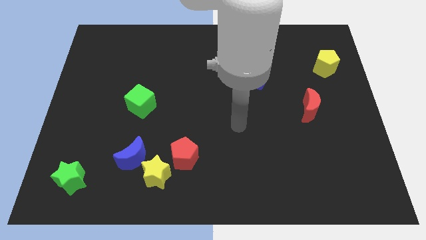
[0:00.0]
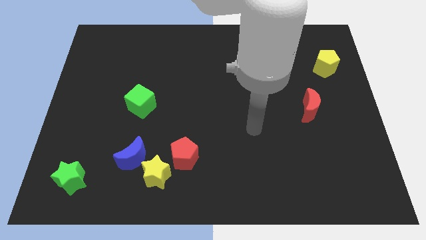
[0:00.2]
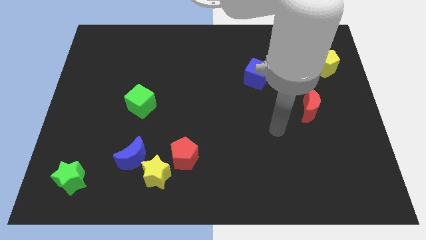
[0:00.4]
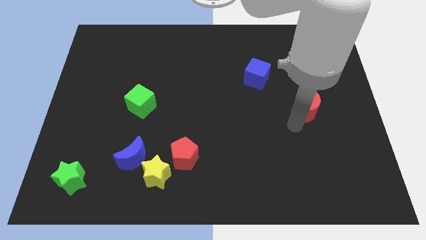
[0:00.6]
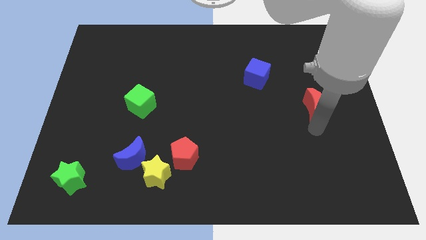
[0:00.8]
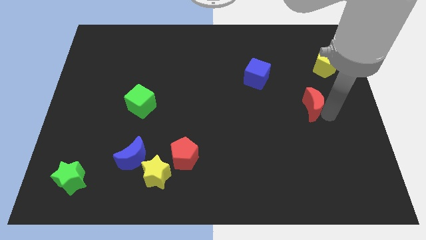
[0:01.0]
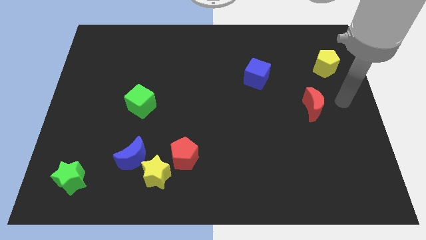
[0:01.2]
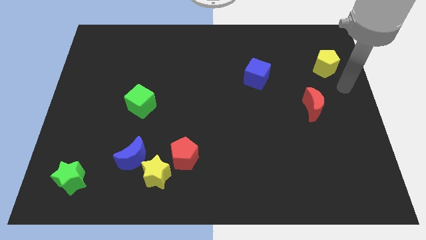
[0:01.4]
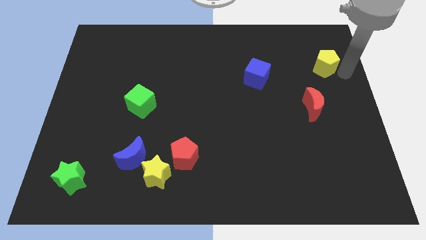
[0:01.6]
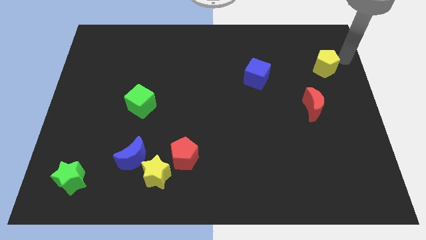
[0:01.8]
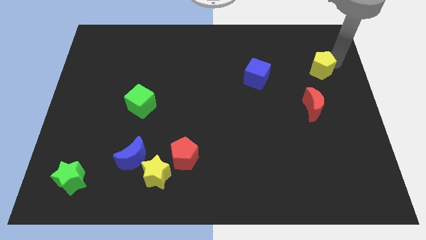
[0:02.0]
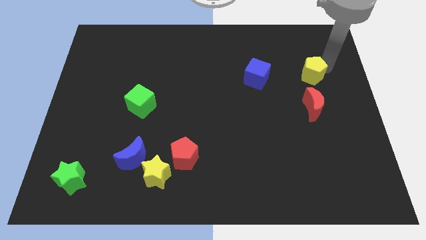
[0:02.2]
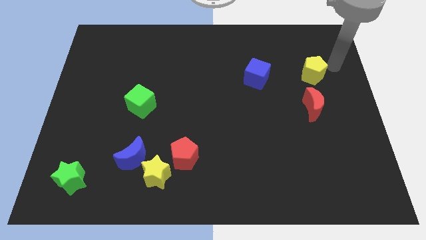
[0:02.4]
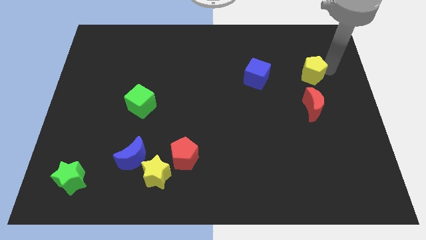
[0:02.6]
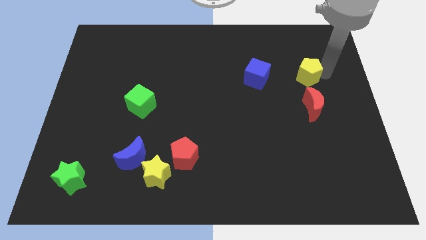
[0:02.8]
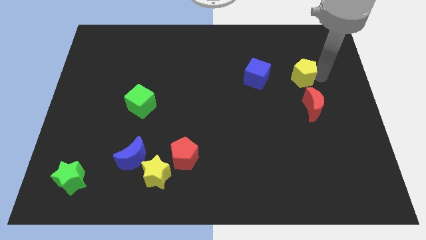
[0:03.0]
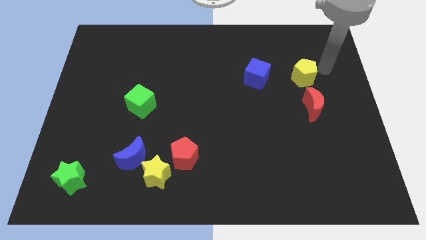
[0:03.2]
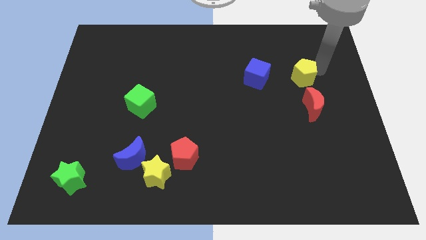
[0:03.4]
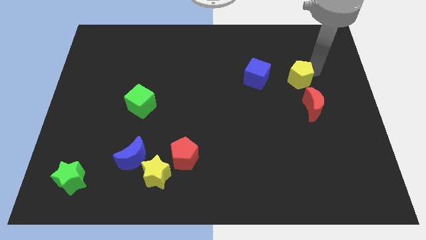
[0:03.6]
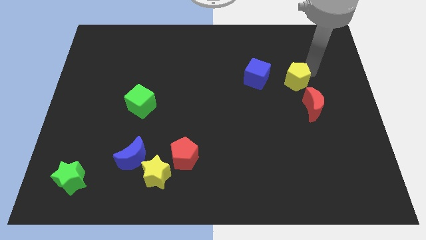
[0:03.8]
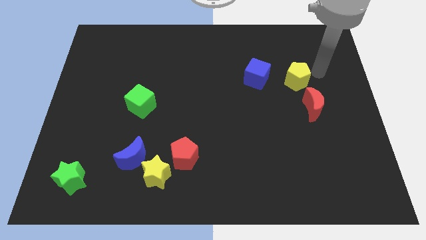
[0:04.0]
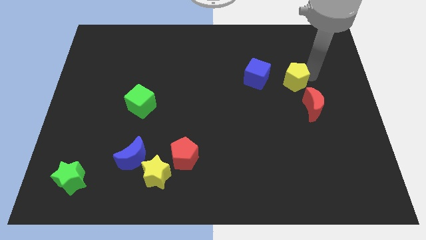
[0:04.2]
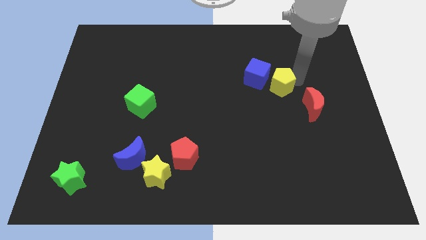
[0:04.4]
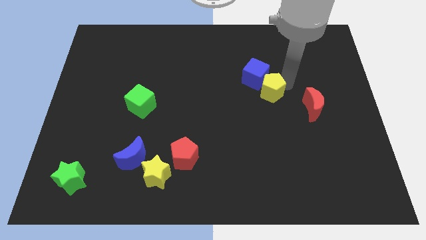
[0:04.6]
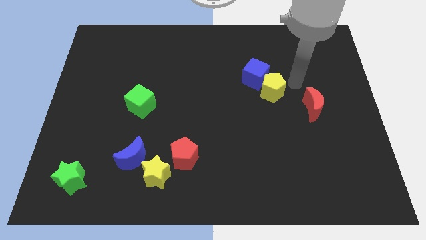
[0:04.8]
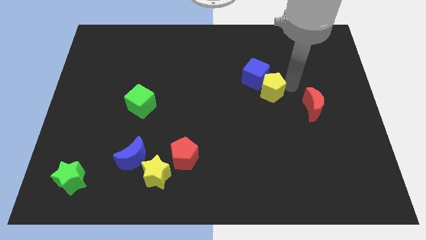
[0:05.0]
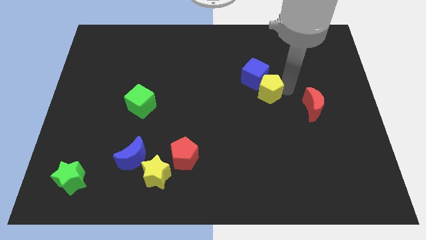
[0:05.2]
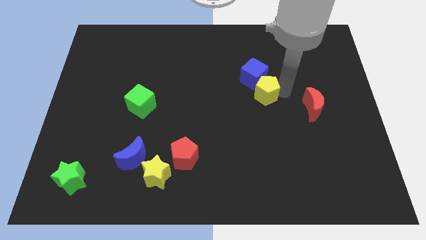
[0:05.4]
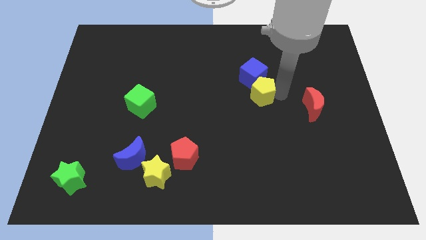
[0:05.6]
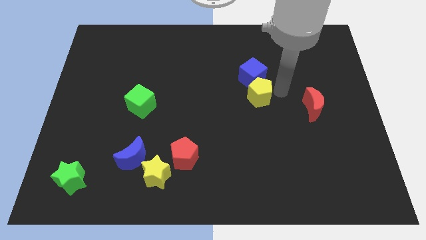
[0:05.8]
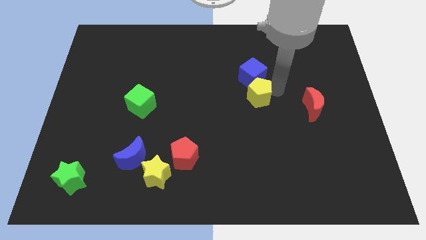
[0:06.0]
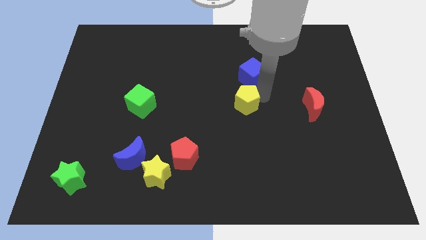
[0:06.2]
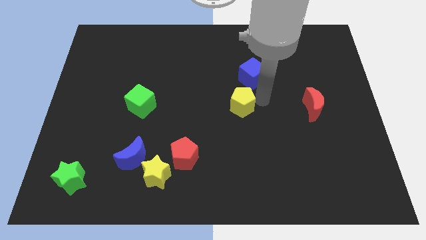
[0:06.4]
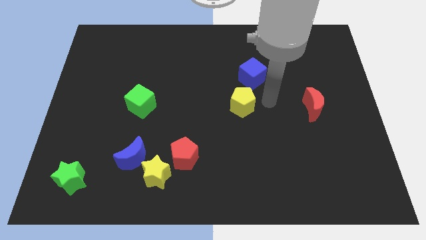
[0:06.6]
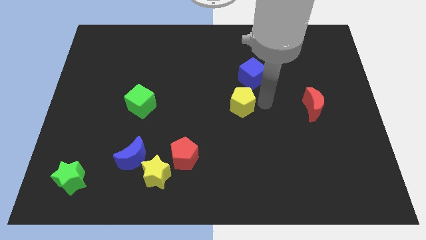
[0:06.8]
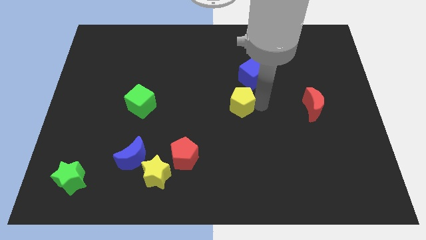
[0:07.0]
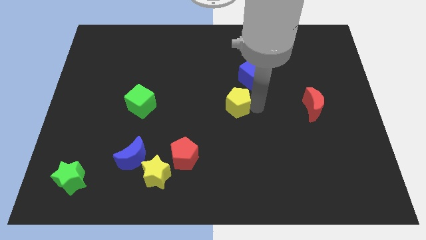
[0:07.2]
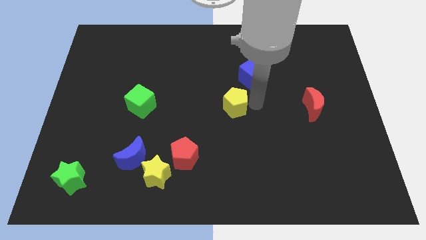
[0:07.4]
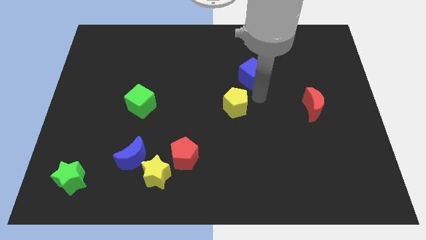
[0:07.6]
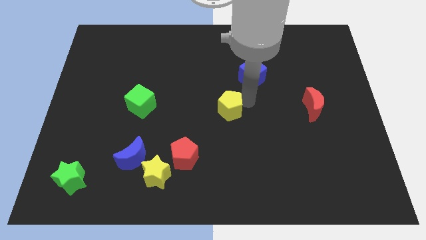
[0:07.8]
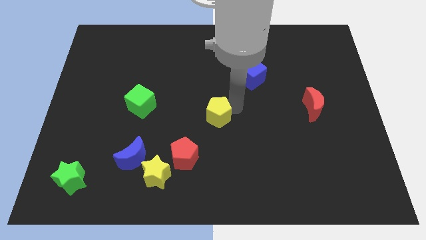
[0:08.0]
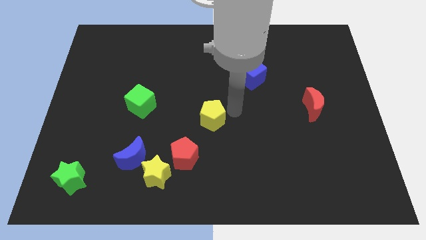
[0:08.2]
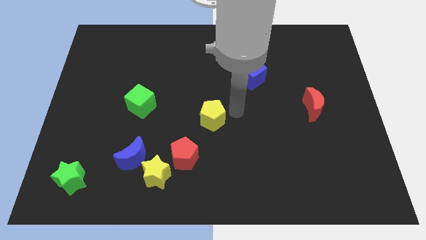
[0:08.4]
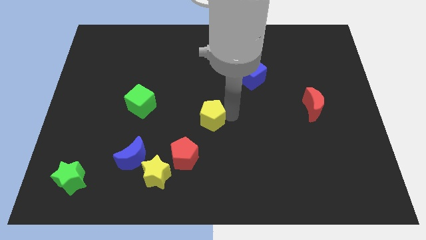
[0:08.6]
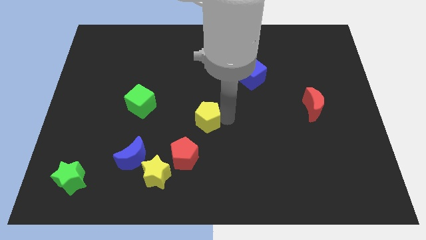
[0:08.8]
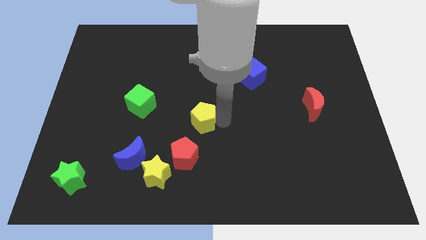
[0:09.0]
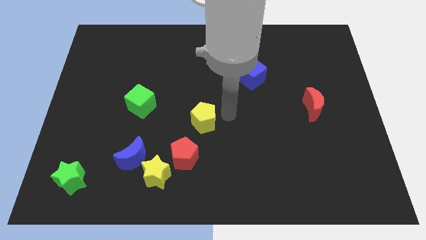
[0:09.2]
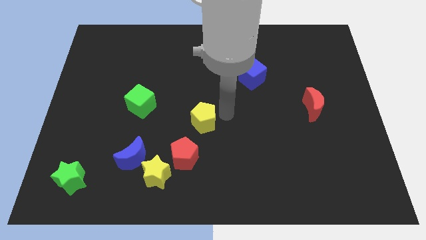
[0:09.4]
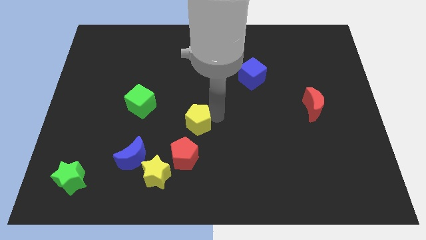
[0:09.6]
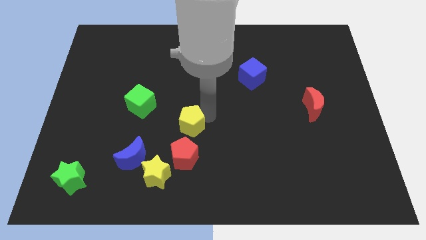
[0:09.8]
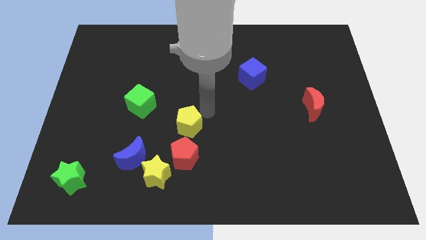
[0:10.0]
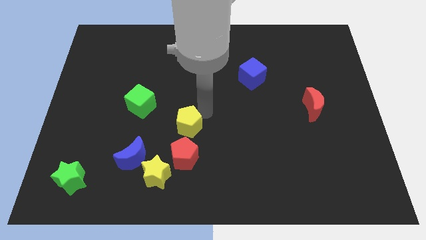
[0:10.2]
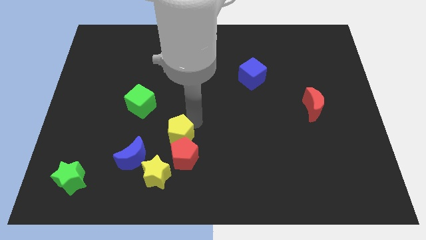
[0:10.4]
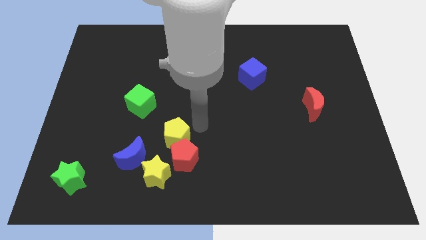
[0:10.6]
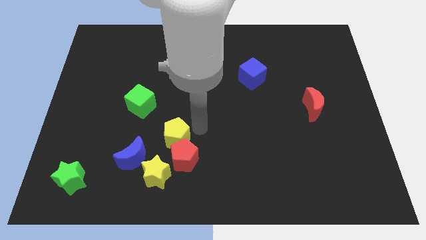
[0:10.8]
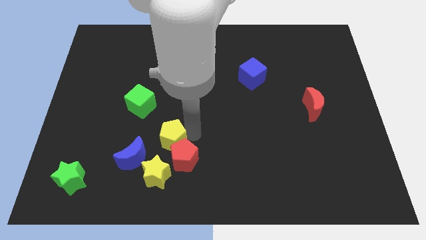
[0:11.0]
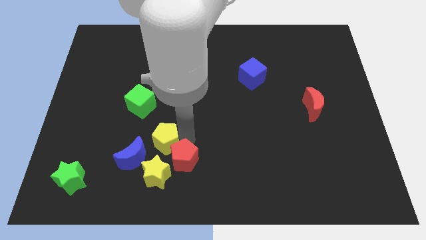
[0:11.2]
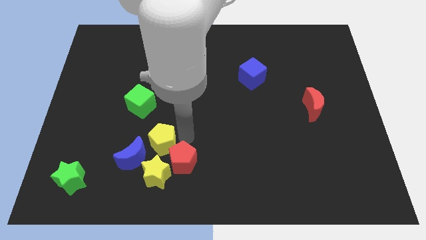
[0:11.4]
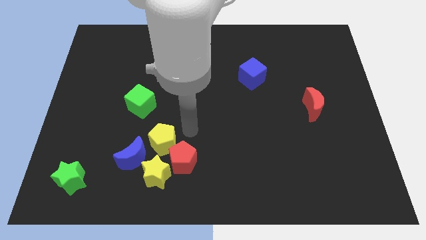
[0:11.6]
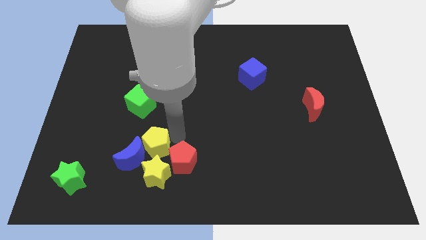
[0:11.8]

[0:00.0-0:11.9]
move the yellow pentagon to the blue moon
